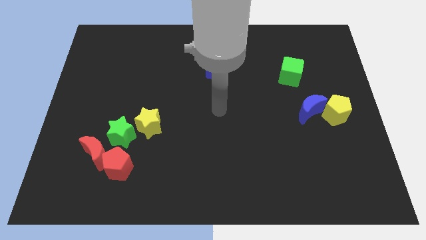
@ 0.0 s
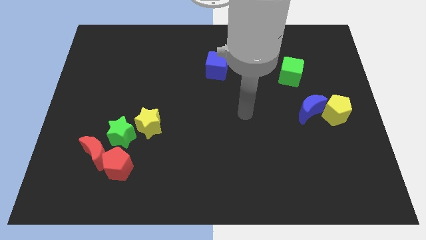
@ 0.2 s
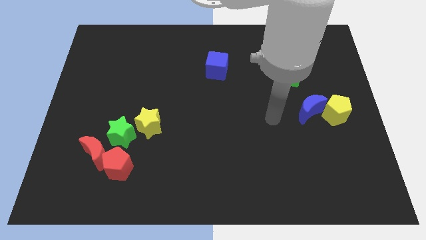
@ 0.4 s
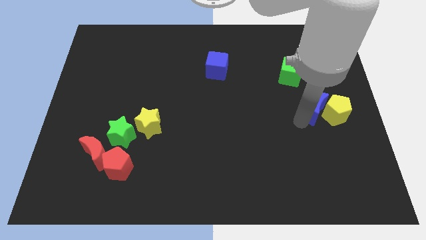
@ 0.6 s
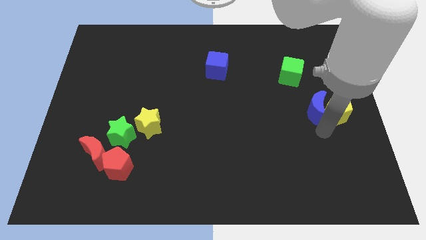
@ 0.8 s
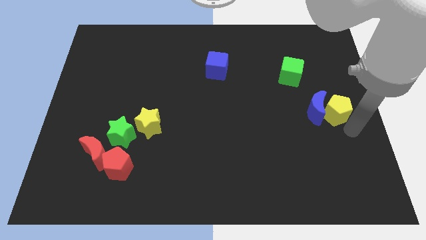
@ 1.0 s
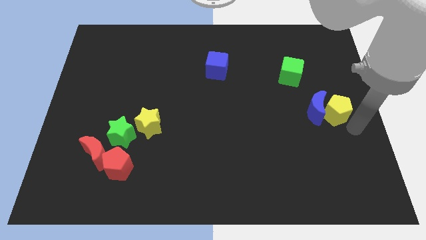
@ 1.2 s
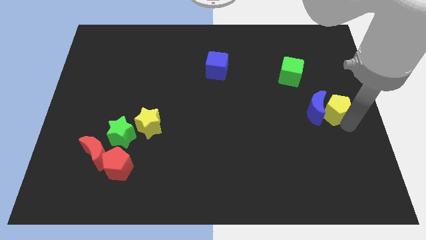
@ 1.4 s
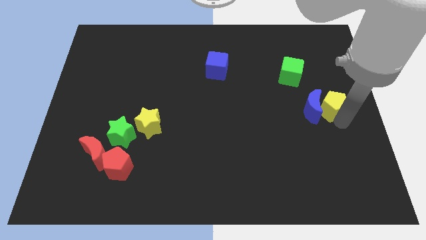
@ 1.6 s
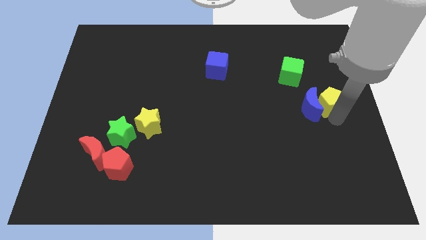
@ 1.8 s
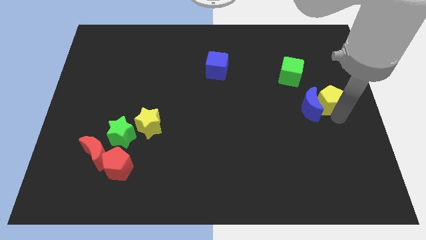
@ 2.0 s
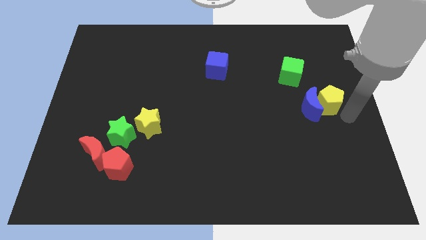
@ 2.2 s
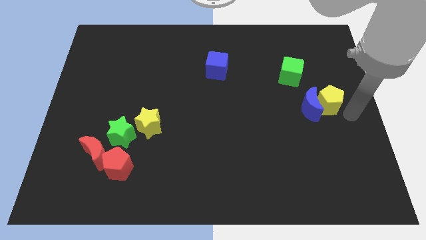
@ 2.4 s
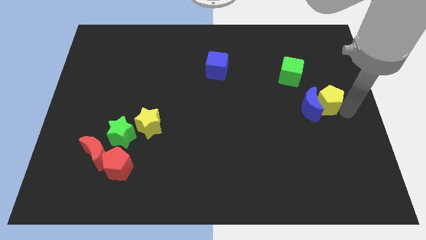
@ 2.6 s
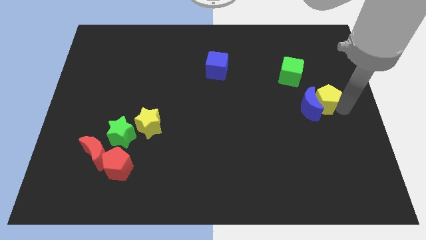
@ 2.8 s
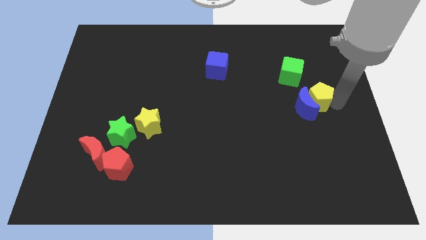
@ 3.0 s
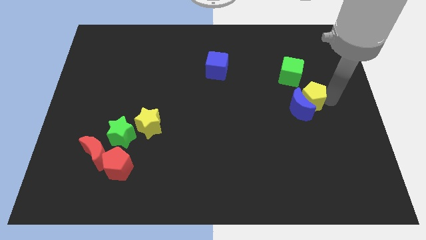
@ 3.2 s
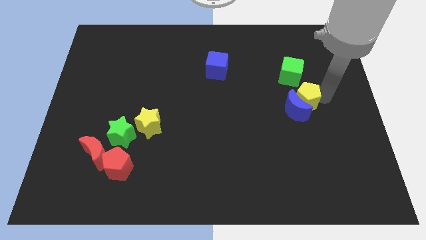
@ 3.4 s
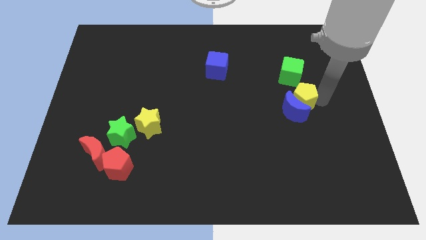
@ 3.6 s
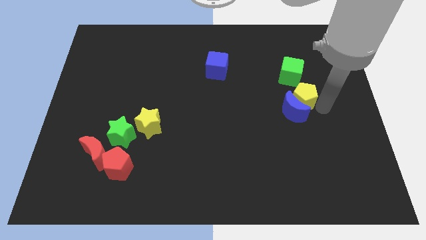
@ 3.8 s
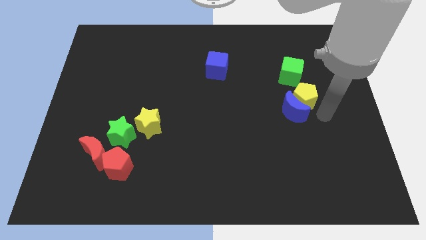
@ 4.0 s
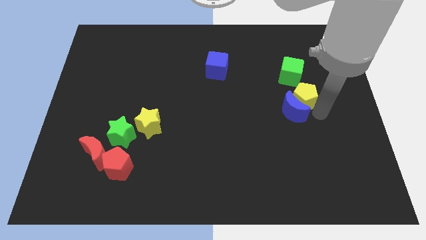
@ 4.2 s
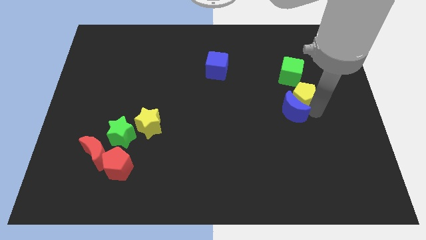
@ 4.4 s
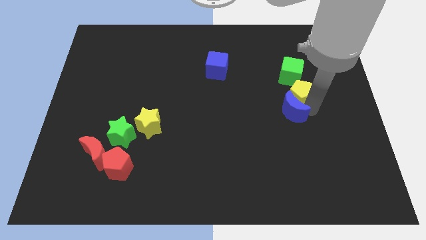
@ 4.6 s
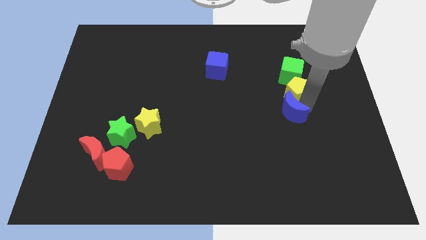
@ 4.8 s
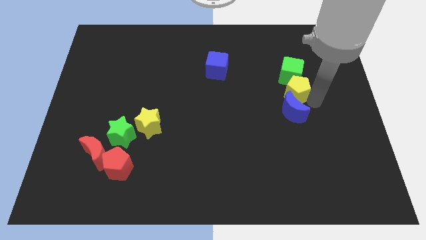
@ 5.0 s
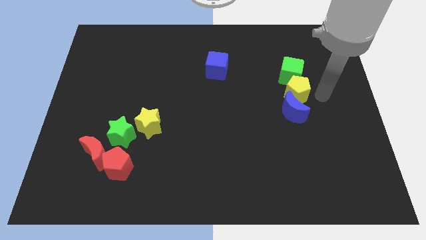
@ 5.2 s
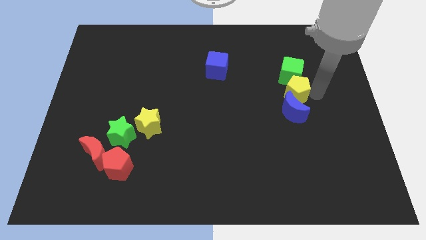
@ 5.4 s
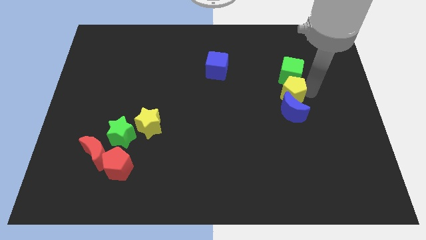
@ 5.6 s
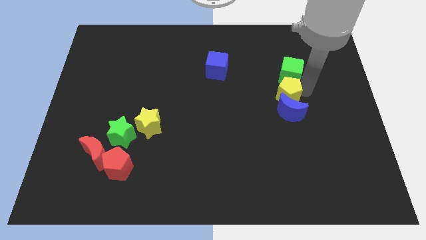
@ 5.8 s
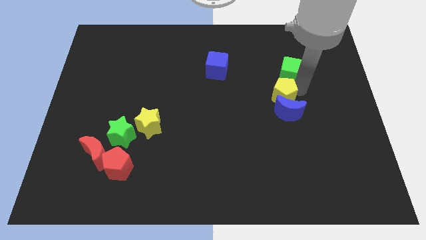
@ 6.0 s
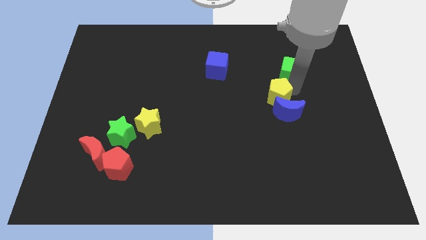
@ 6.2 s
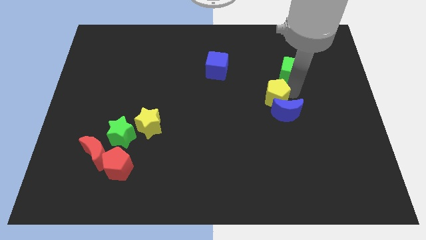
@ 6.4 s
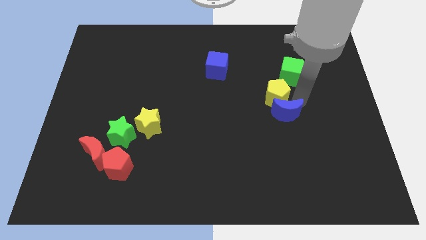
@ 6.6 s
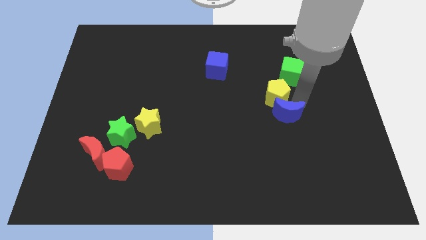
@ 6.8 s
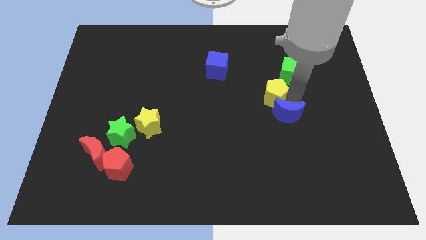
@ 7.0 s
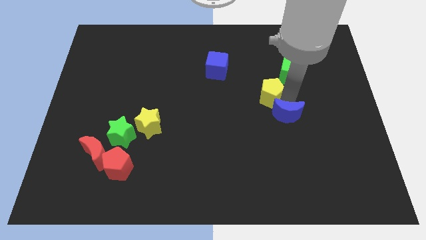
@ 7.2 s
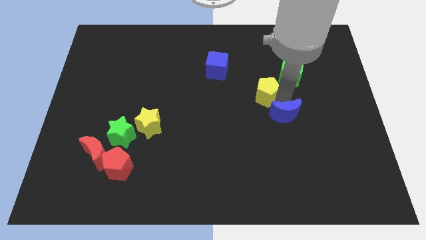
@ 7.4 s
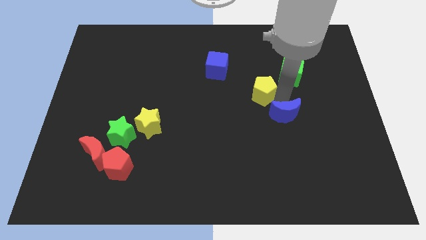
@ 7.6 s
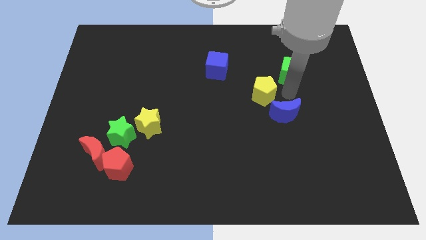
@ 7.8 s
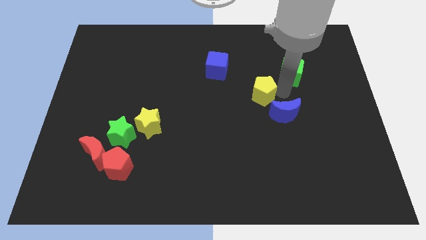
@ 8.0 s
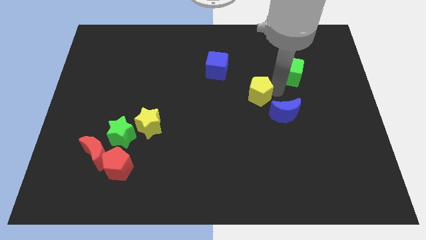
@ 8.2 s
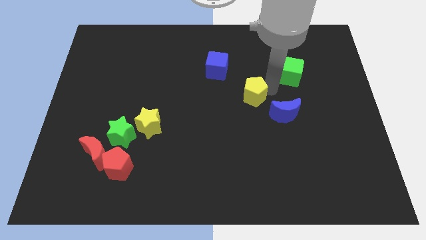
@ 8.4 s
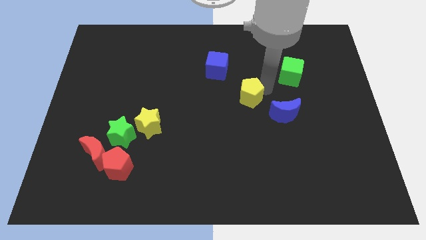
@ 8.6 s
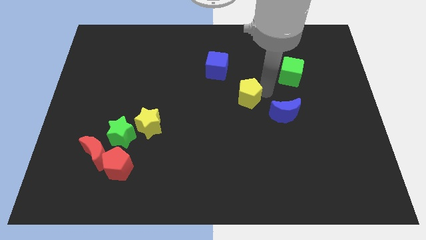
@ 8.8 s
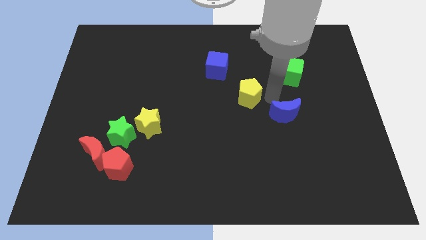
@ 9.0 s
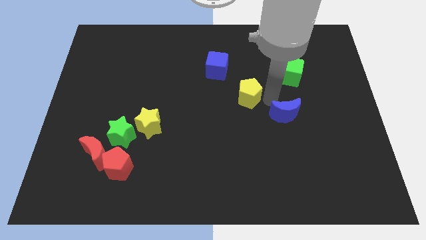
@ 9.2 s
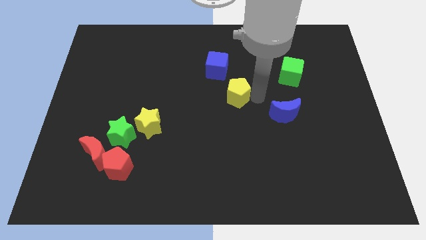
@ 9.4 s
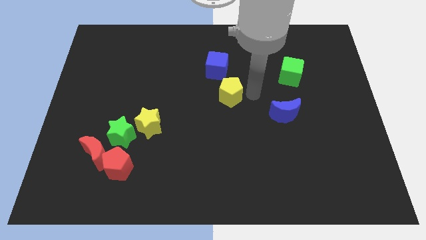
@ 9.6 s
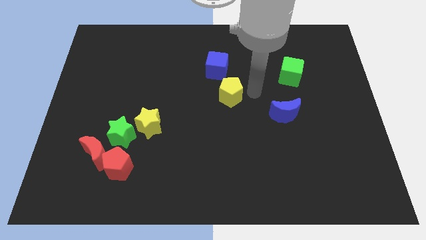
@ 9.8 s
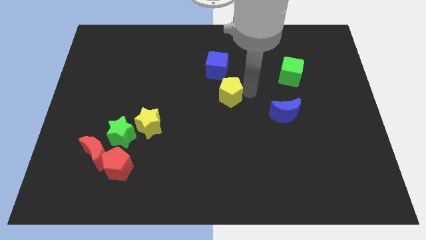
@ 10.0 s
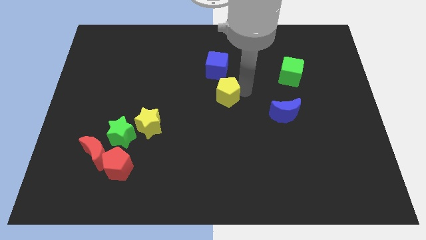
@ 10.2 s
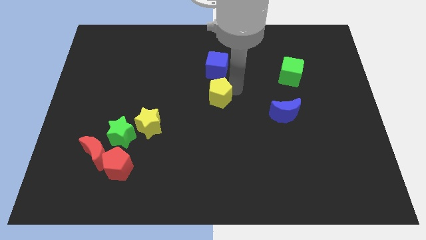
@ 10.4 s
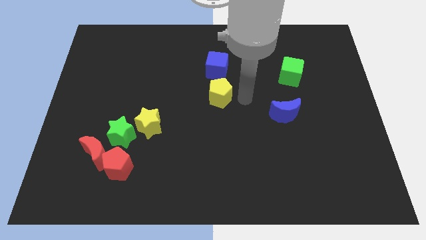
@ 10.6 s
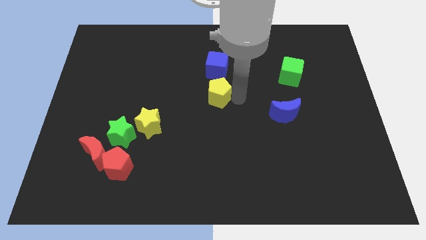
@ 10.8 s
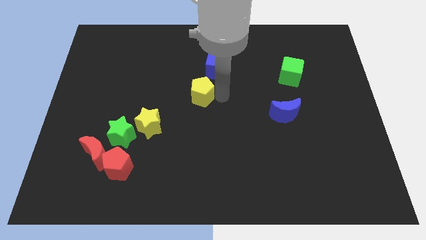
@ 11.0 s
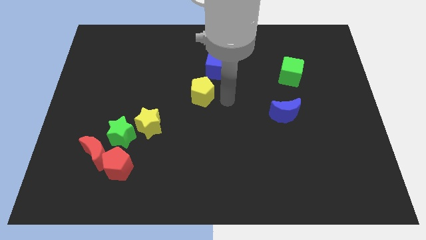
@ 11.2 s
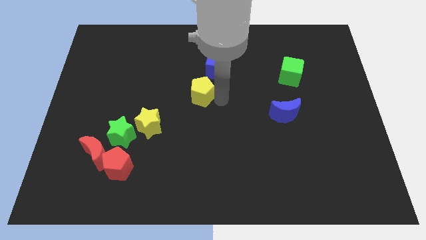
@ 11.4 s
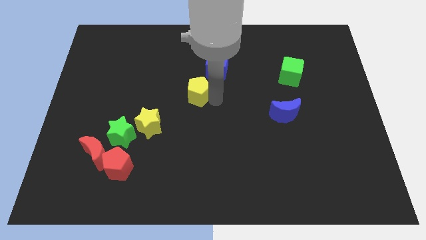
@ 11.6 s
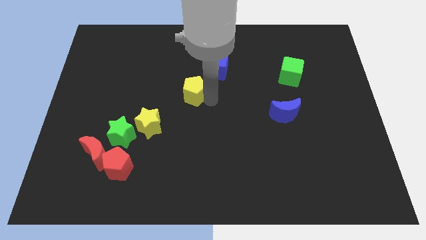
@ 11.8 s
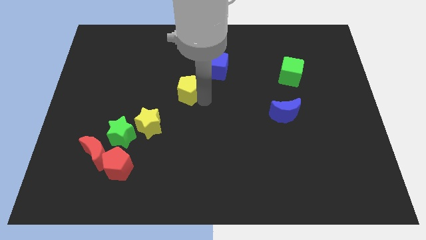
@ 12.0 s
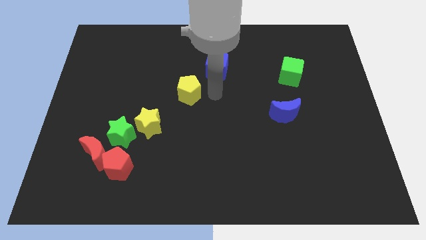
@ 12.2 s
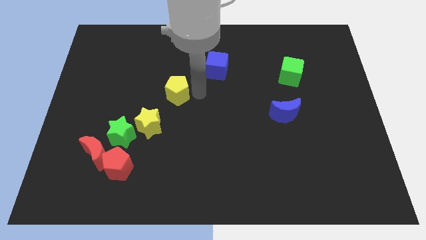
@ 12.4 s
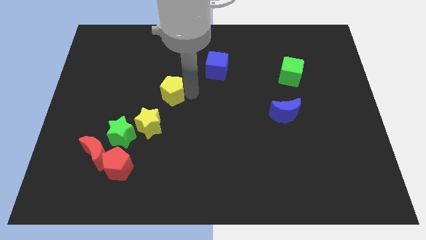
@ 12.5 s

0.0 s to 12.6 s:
move the yellow pentagon to the top of the yellow star
